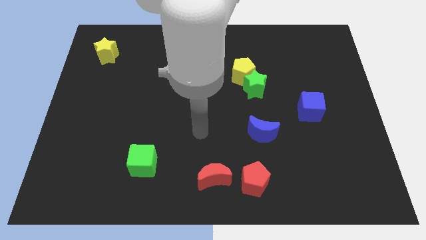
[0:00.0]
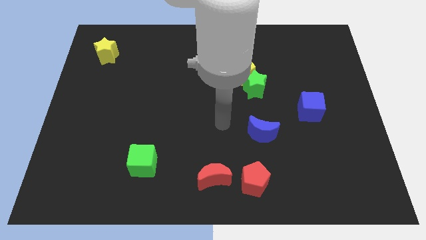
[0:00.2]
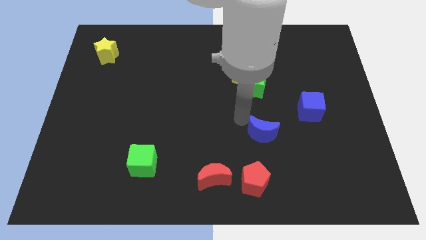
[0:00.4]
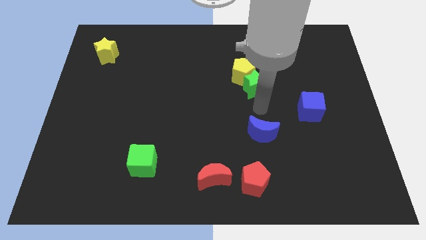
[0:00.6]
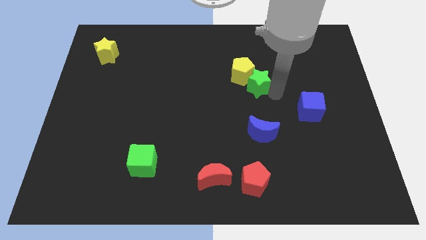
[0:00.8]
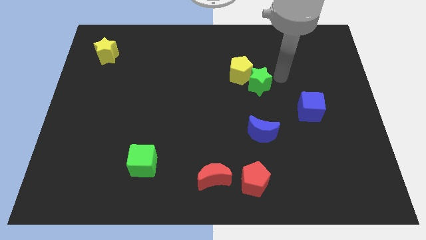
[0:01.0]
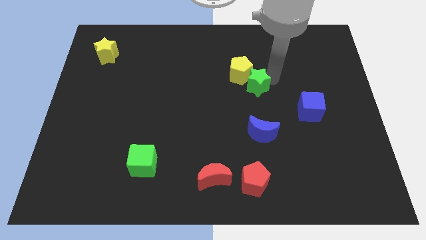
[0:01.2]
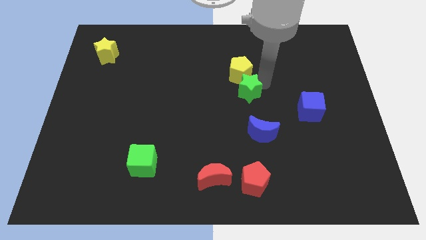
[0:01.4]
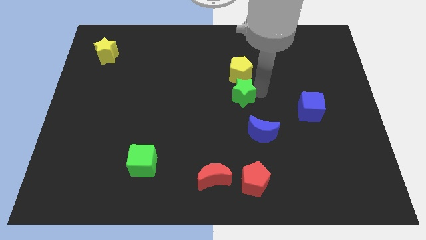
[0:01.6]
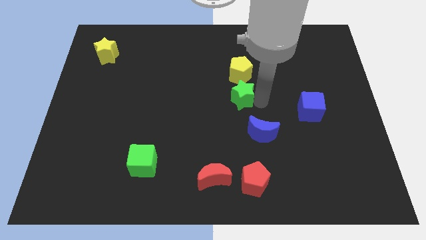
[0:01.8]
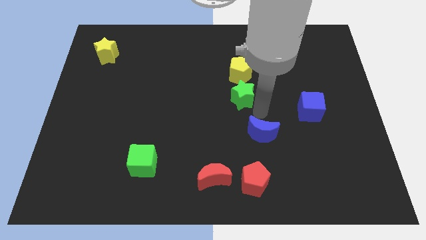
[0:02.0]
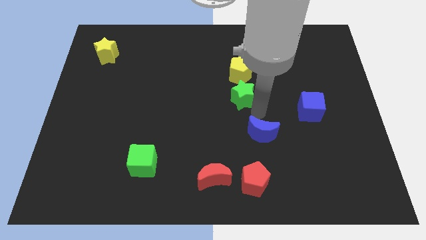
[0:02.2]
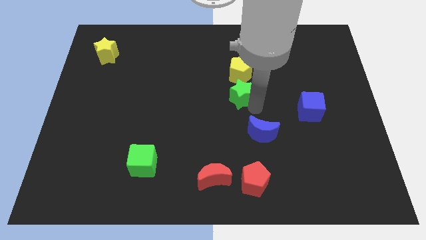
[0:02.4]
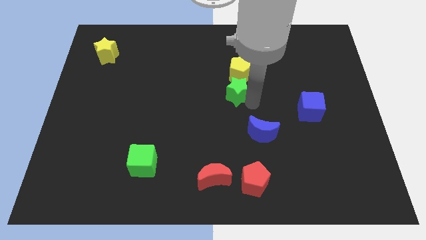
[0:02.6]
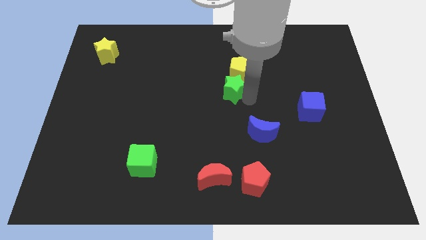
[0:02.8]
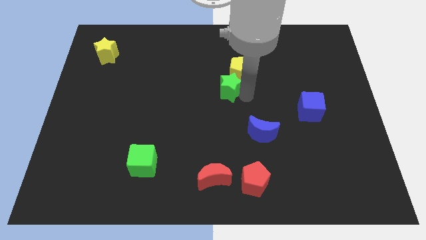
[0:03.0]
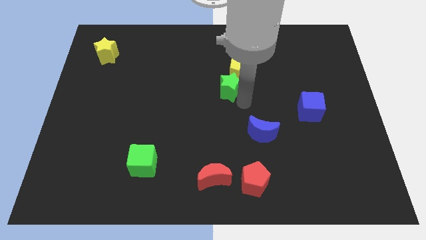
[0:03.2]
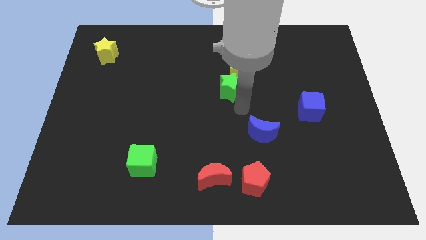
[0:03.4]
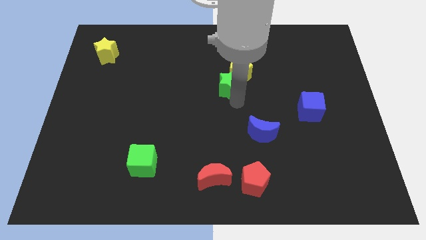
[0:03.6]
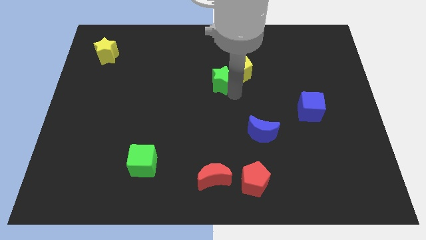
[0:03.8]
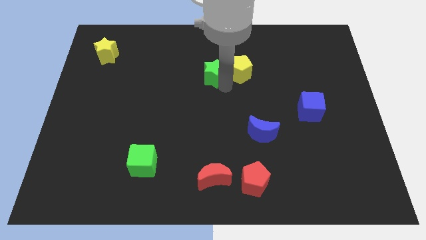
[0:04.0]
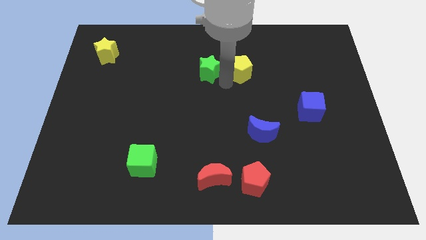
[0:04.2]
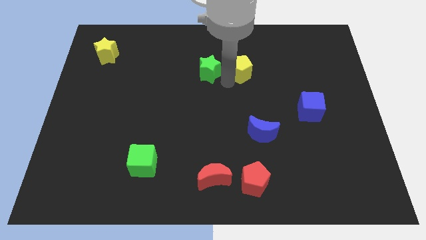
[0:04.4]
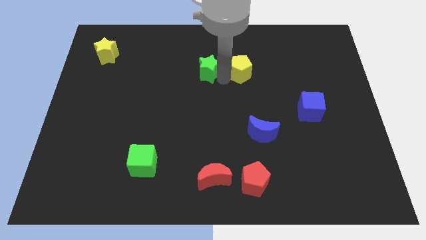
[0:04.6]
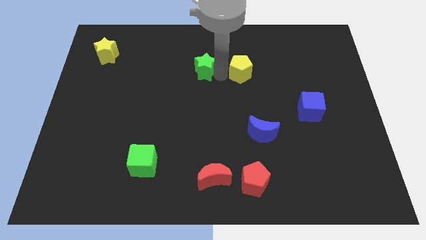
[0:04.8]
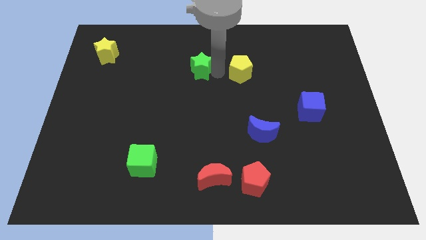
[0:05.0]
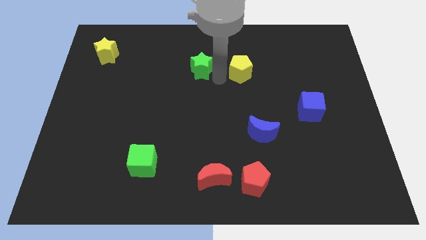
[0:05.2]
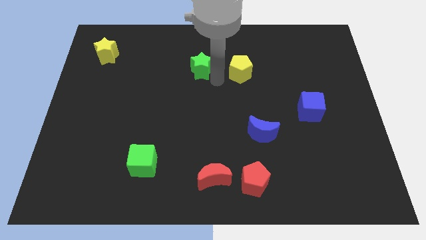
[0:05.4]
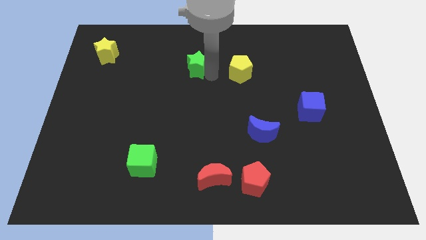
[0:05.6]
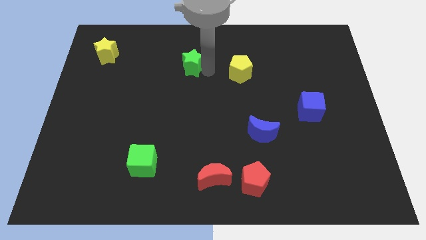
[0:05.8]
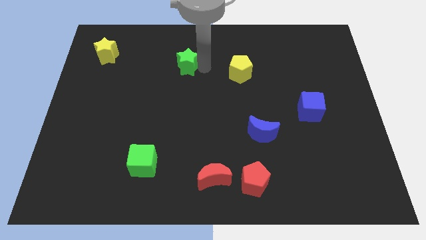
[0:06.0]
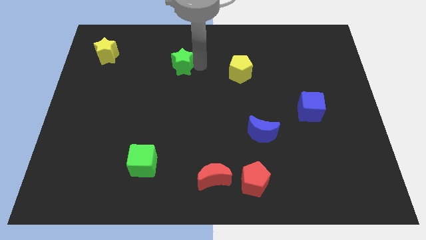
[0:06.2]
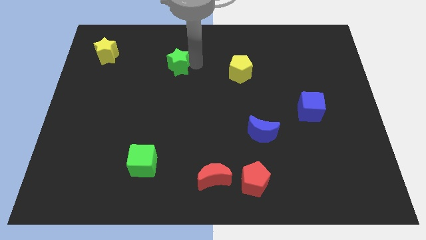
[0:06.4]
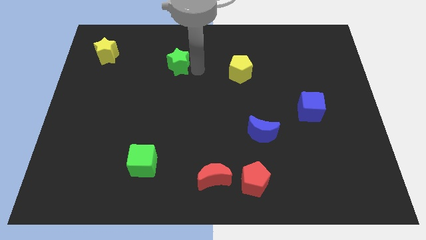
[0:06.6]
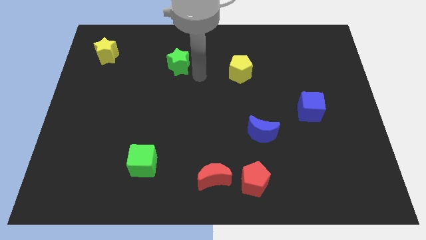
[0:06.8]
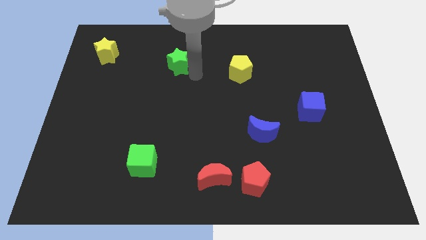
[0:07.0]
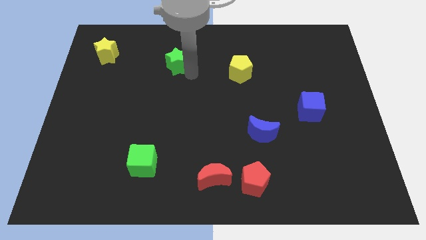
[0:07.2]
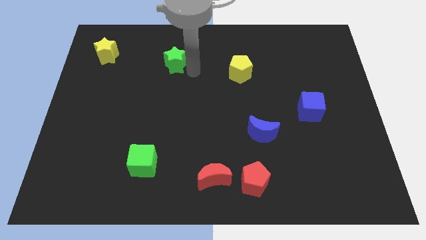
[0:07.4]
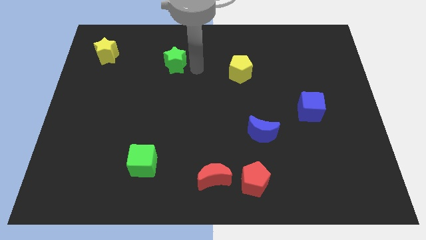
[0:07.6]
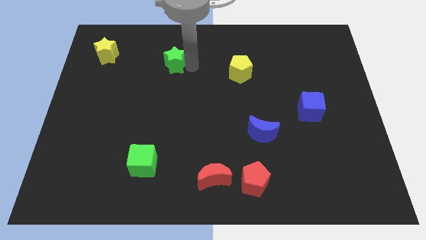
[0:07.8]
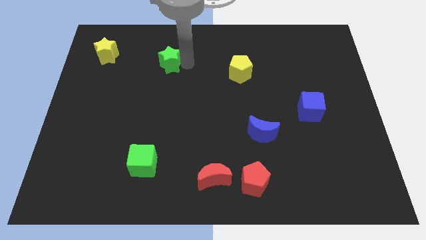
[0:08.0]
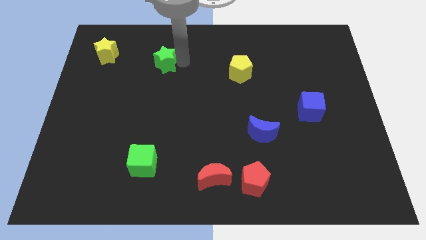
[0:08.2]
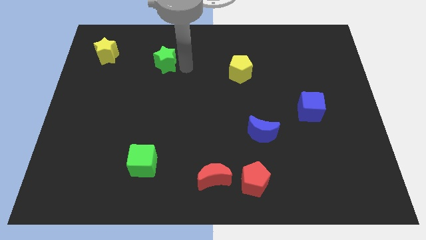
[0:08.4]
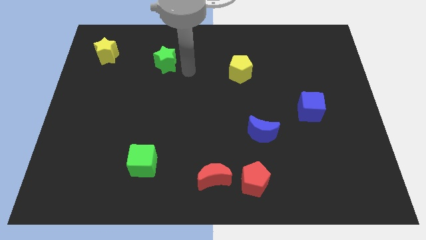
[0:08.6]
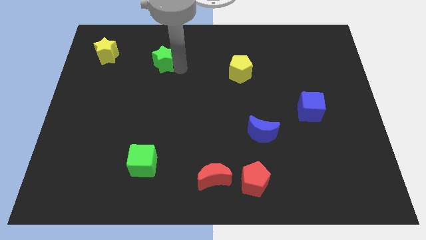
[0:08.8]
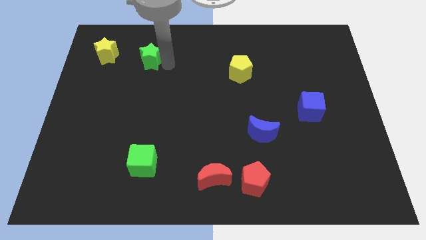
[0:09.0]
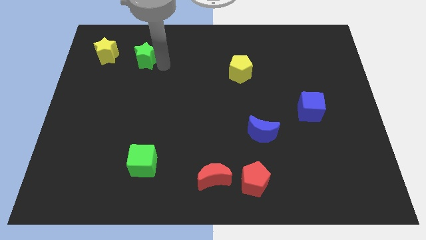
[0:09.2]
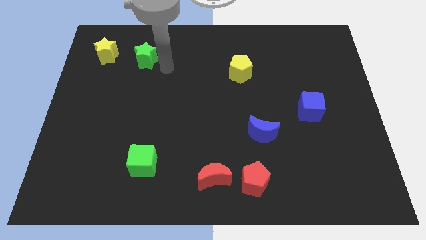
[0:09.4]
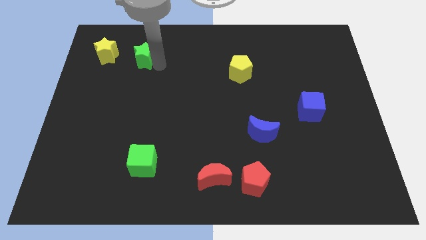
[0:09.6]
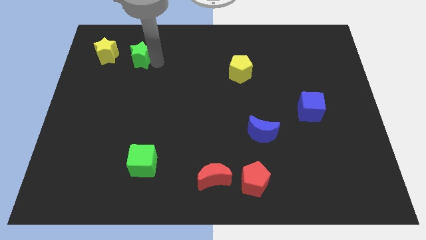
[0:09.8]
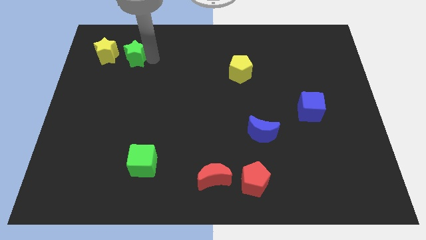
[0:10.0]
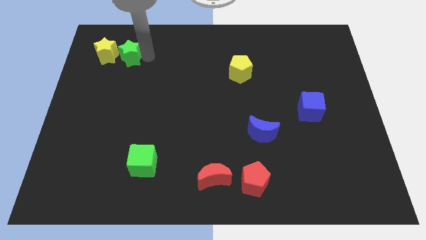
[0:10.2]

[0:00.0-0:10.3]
put the green star close to the yellow star

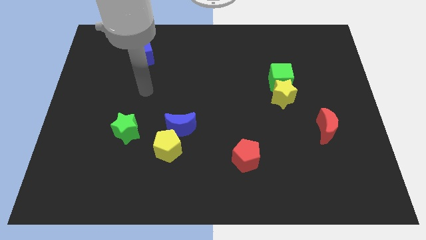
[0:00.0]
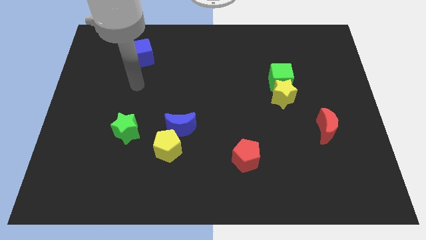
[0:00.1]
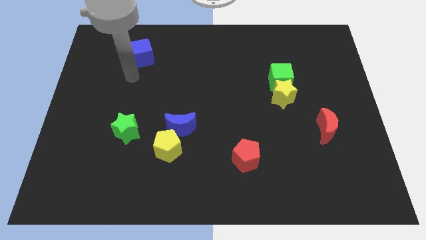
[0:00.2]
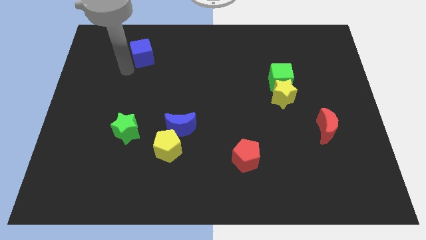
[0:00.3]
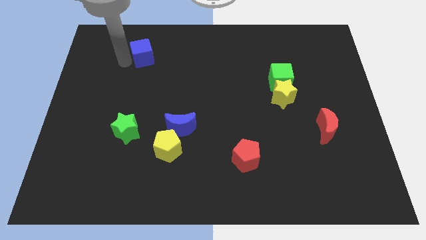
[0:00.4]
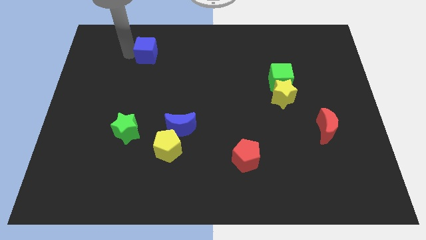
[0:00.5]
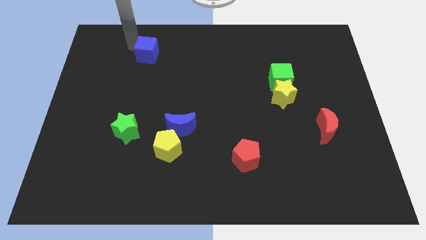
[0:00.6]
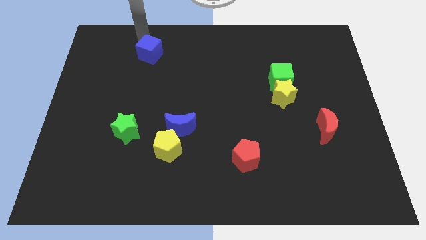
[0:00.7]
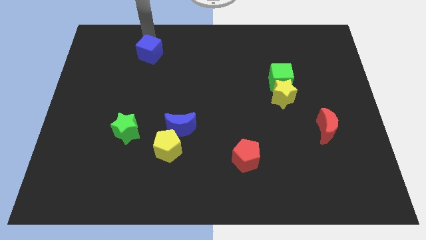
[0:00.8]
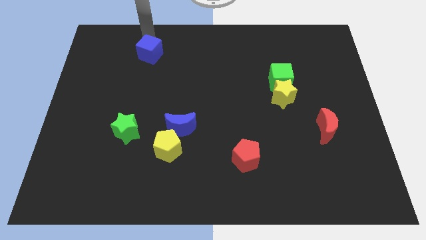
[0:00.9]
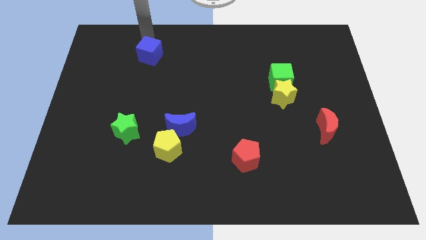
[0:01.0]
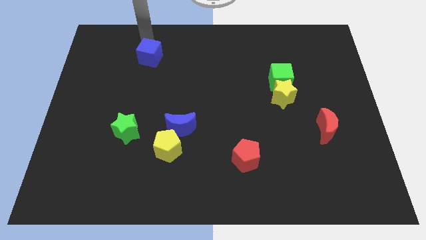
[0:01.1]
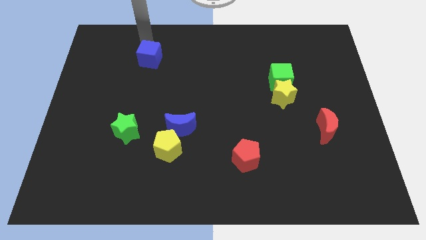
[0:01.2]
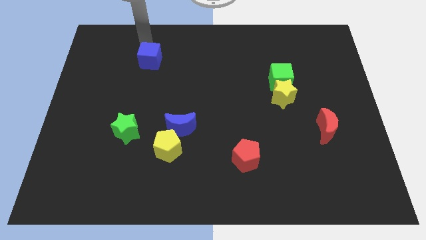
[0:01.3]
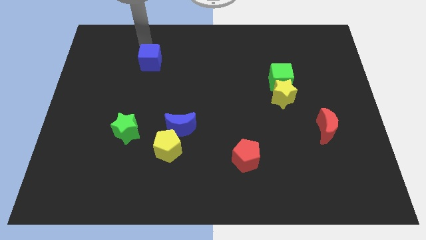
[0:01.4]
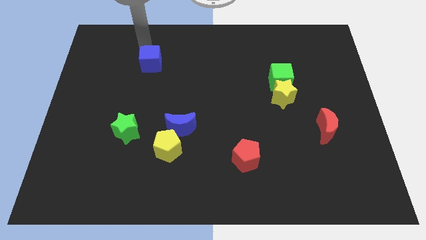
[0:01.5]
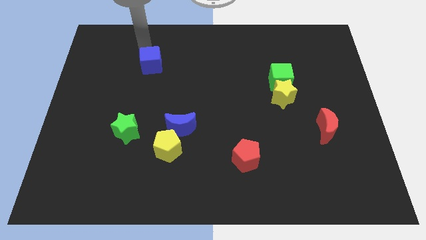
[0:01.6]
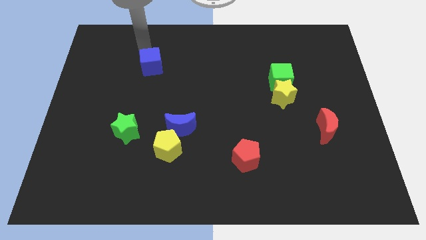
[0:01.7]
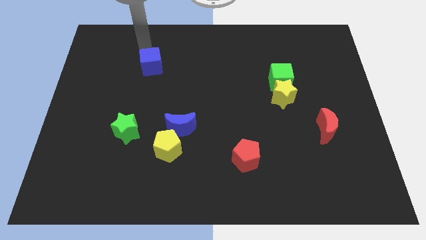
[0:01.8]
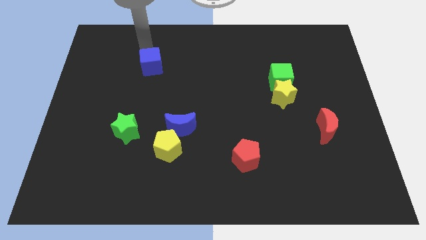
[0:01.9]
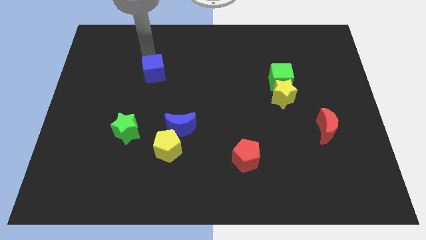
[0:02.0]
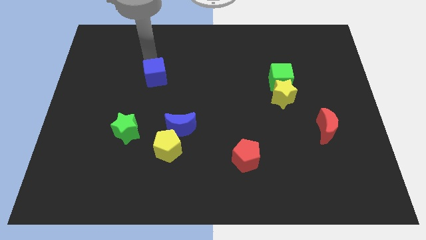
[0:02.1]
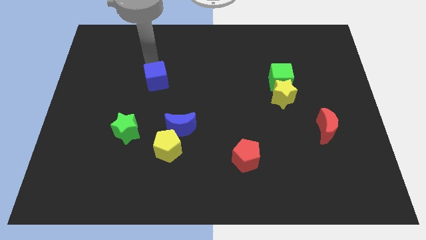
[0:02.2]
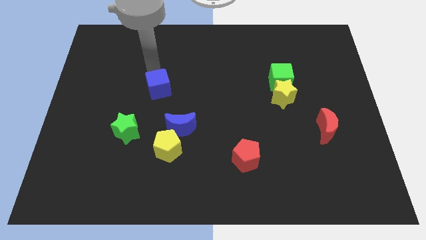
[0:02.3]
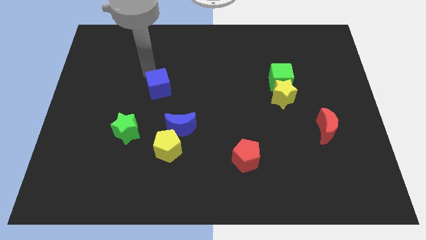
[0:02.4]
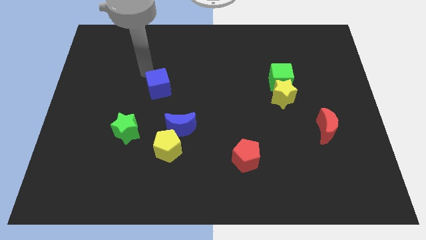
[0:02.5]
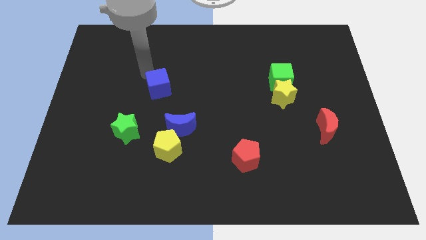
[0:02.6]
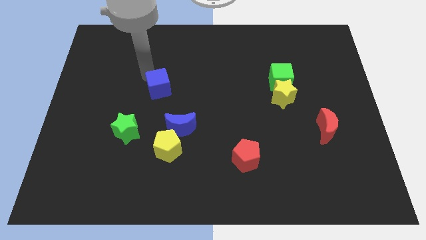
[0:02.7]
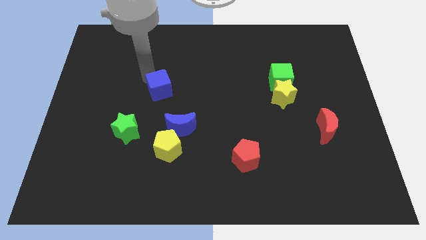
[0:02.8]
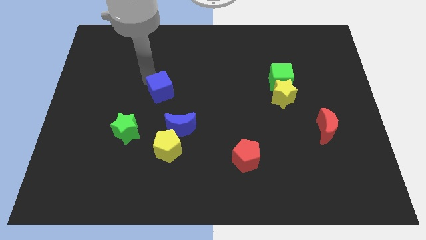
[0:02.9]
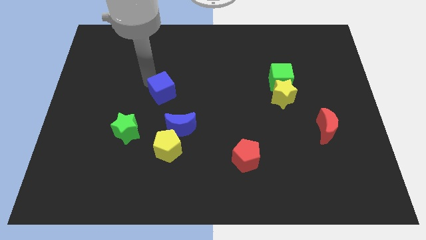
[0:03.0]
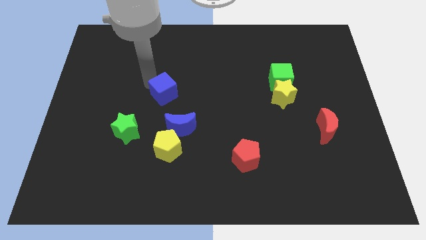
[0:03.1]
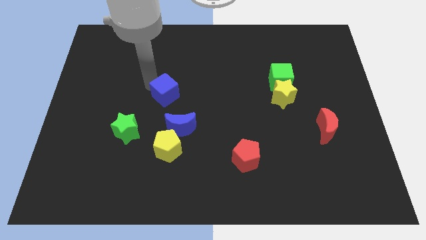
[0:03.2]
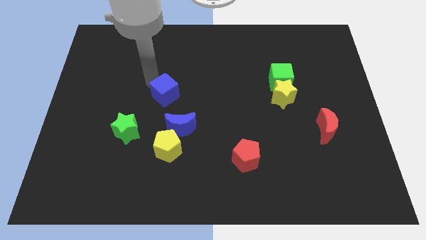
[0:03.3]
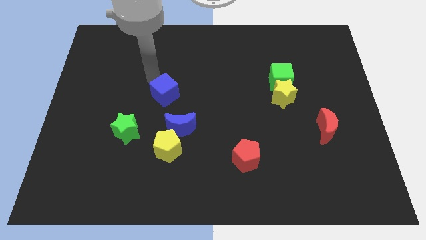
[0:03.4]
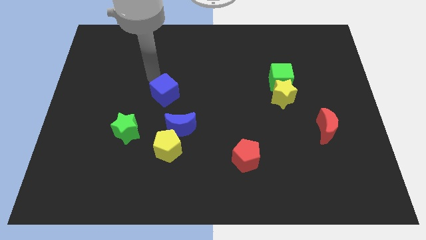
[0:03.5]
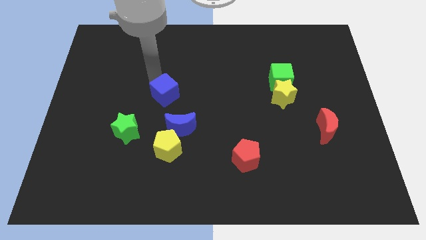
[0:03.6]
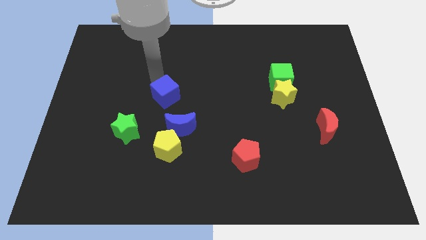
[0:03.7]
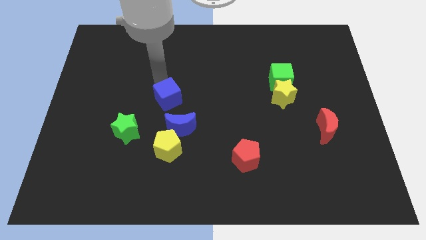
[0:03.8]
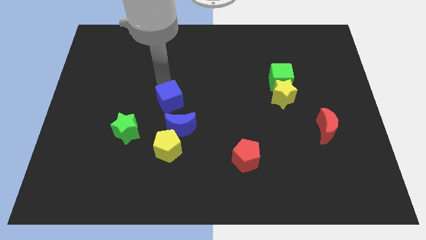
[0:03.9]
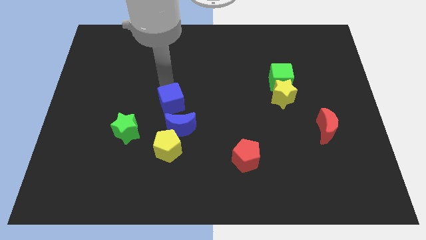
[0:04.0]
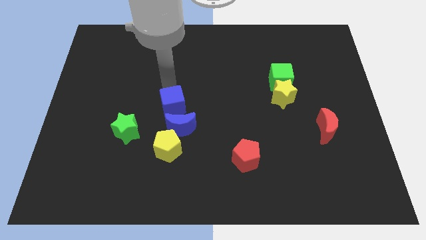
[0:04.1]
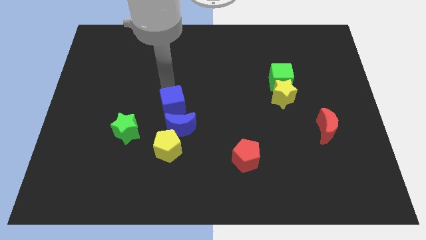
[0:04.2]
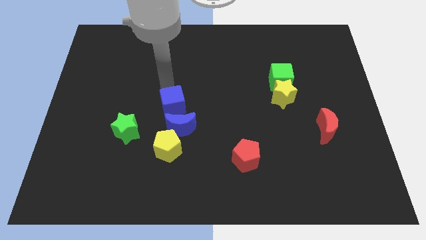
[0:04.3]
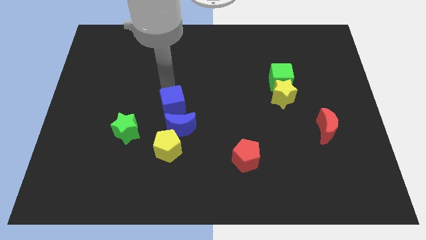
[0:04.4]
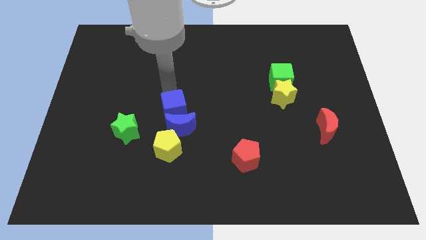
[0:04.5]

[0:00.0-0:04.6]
put the blue cube next to the blue moon
